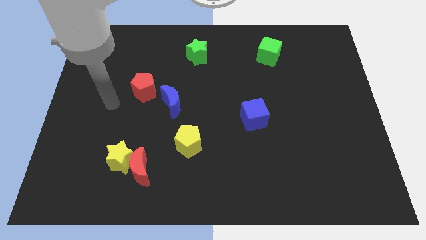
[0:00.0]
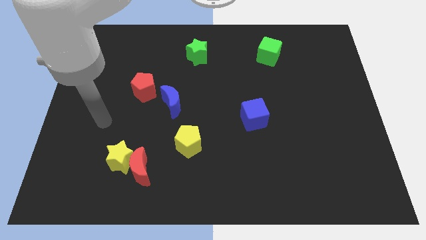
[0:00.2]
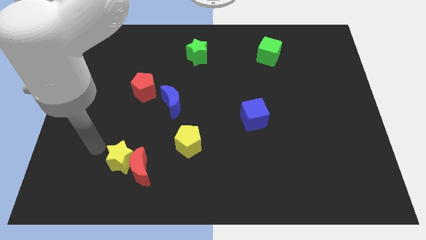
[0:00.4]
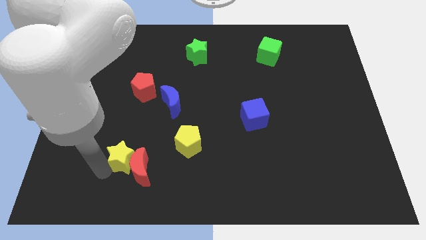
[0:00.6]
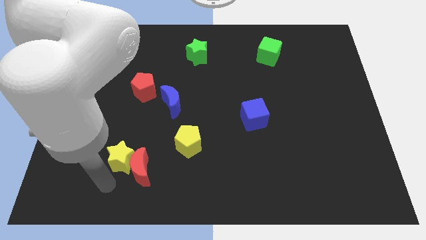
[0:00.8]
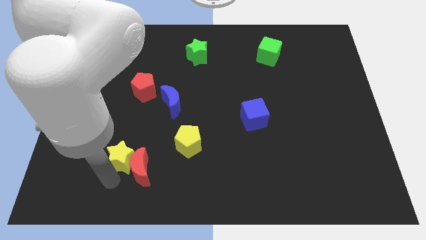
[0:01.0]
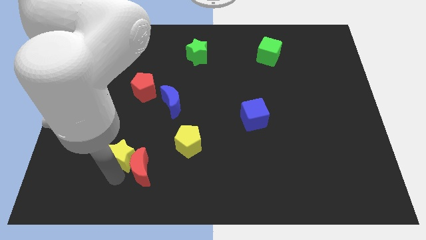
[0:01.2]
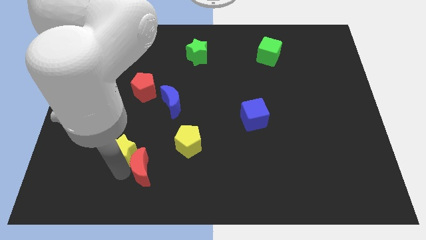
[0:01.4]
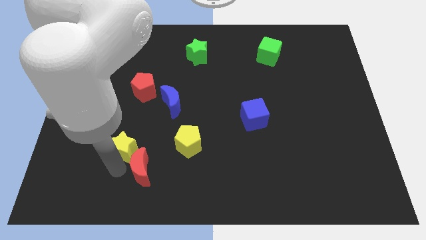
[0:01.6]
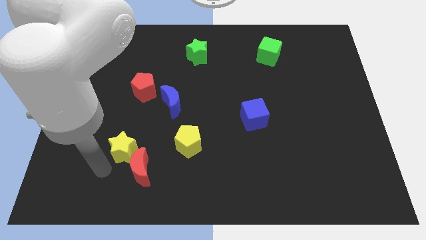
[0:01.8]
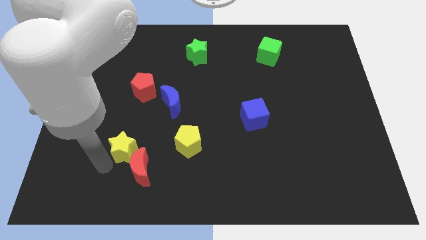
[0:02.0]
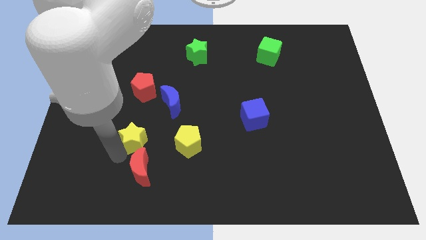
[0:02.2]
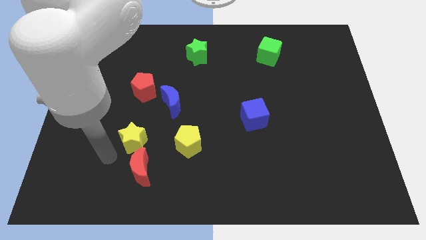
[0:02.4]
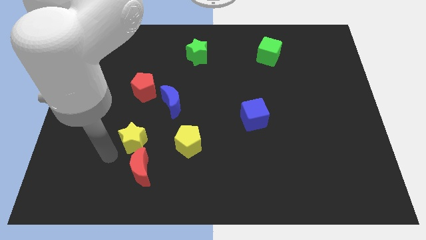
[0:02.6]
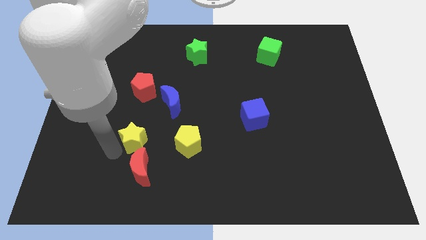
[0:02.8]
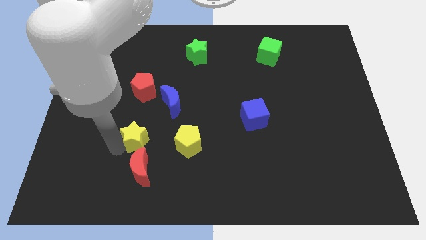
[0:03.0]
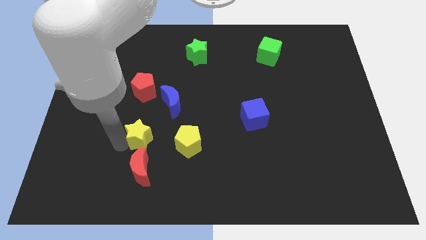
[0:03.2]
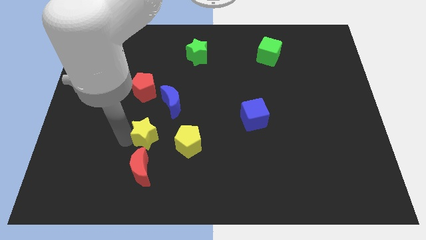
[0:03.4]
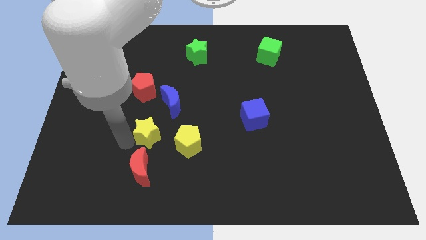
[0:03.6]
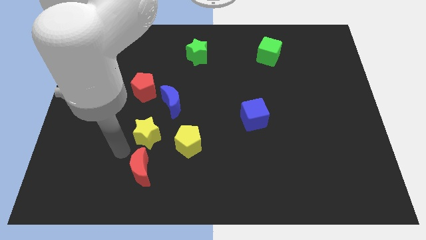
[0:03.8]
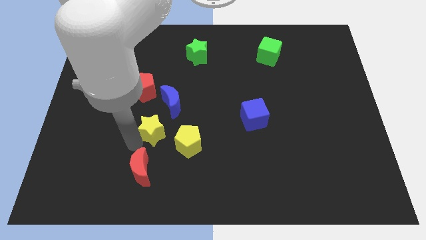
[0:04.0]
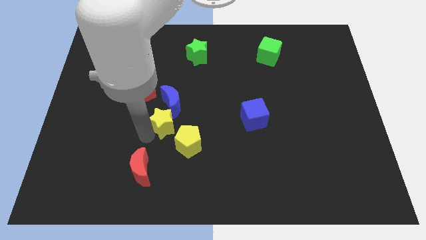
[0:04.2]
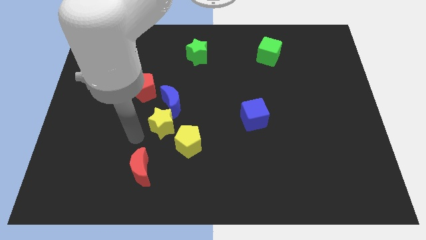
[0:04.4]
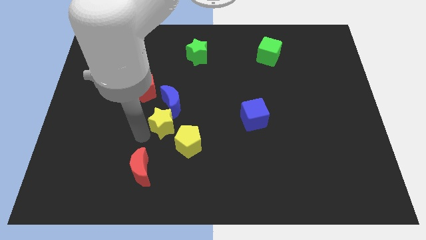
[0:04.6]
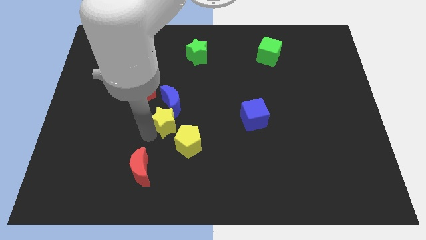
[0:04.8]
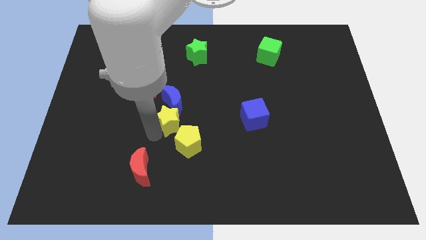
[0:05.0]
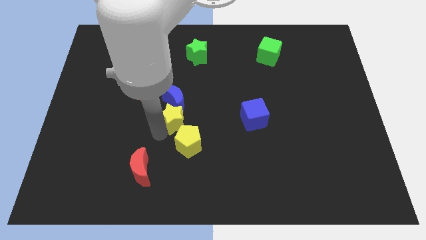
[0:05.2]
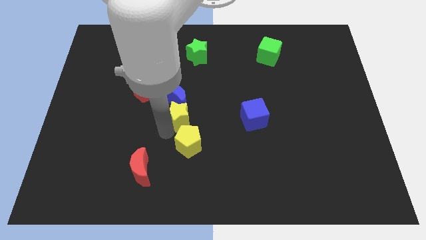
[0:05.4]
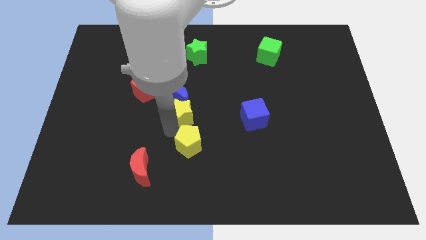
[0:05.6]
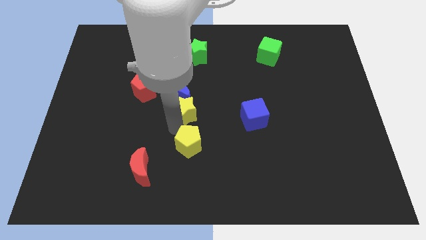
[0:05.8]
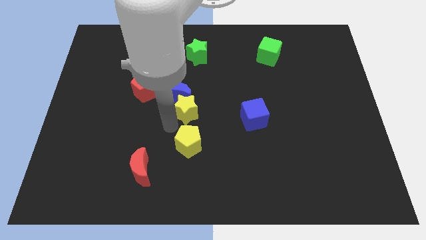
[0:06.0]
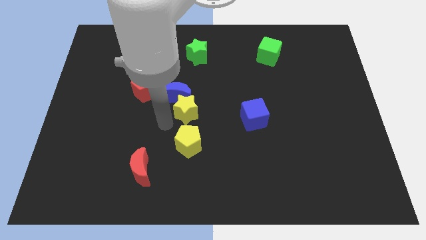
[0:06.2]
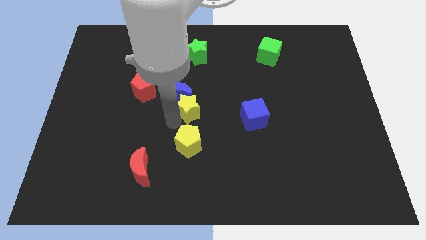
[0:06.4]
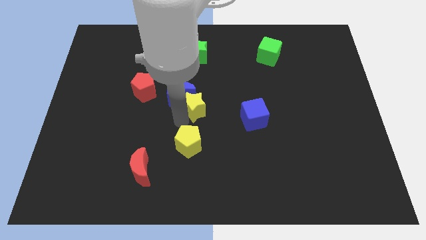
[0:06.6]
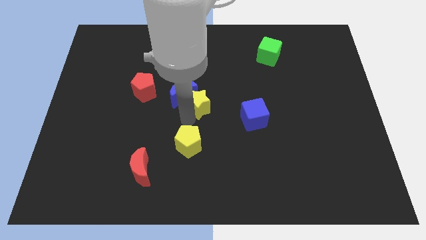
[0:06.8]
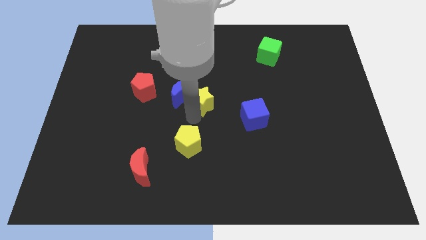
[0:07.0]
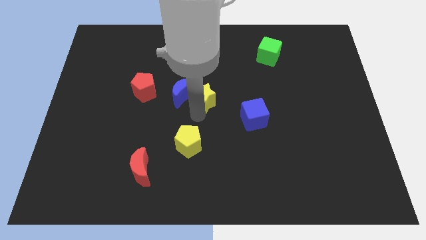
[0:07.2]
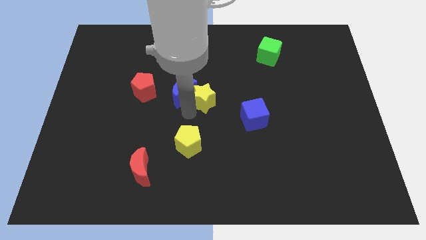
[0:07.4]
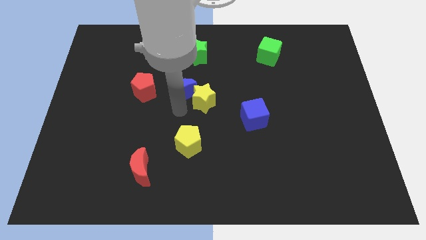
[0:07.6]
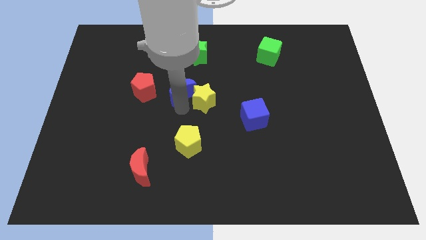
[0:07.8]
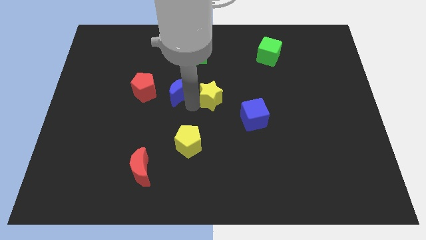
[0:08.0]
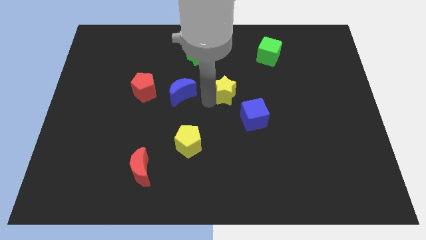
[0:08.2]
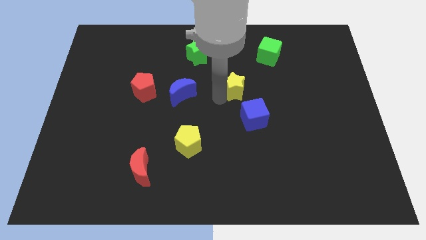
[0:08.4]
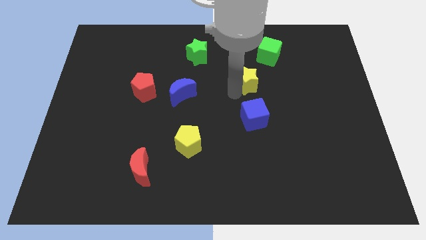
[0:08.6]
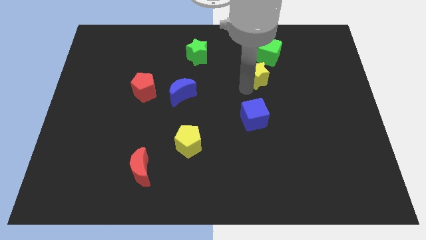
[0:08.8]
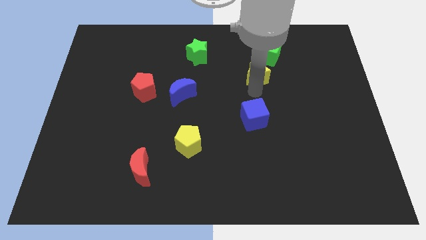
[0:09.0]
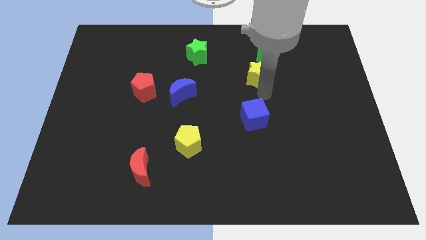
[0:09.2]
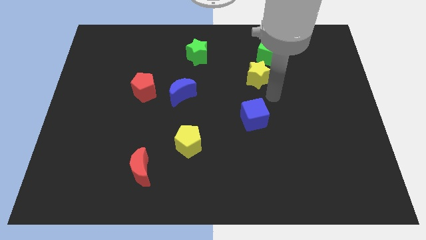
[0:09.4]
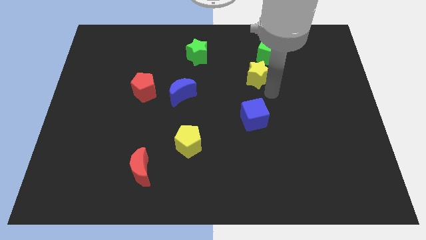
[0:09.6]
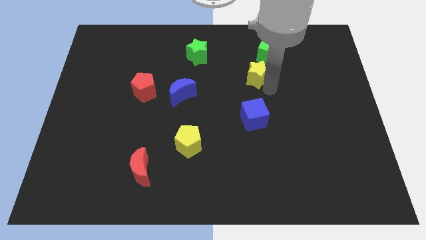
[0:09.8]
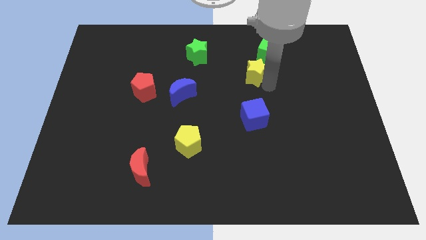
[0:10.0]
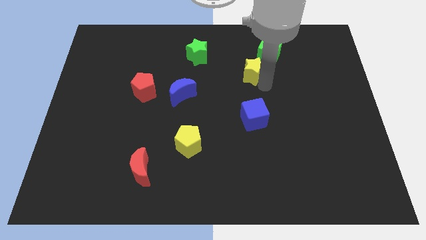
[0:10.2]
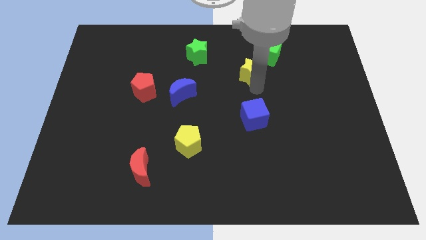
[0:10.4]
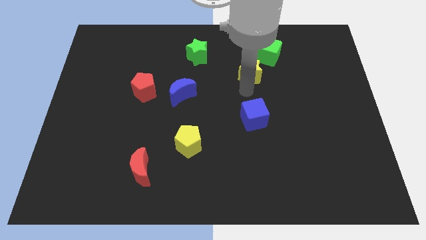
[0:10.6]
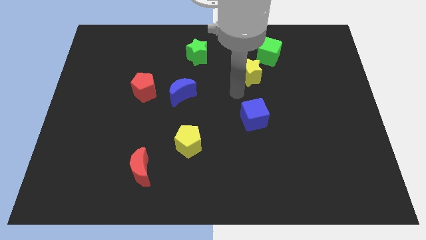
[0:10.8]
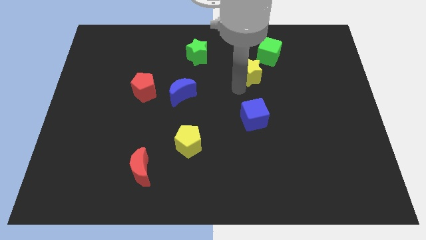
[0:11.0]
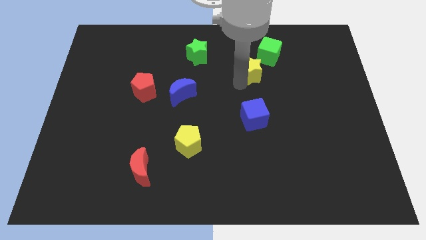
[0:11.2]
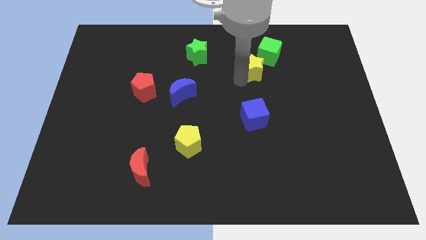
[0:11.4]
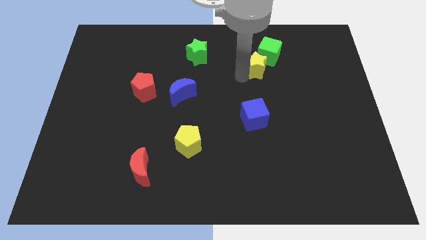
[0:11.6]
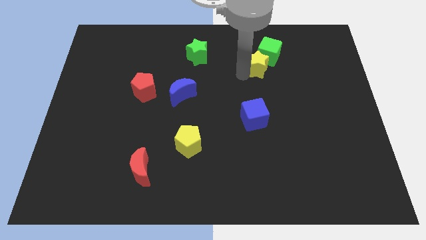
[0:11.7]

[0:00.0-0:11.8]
push the yellow star to the green cube

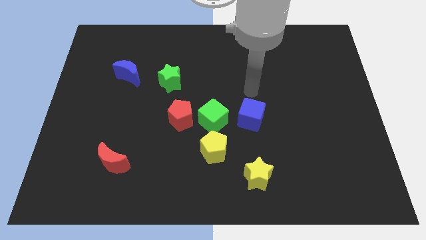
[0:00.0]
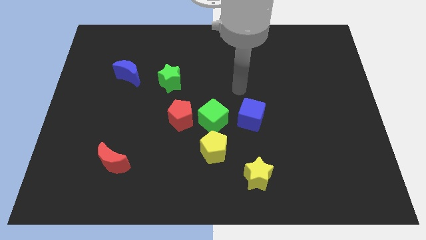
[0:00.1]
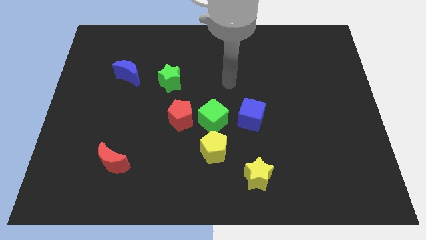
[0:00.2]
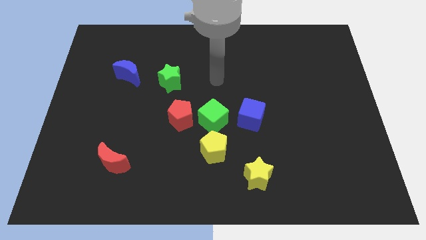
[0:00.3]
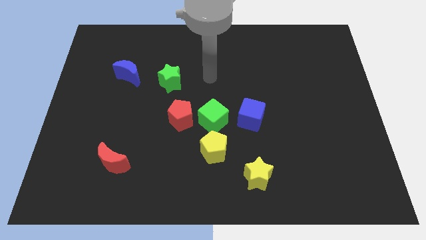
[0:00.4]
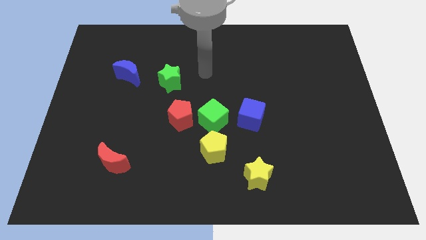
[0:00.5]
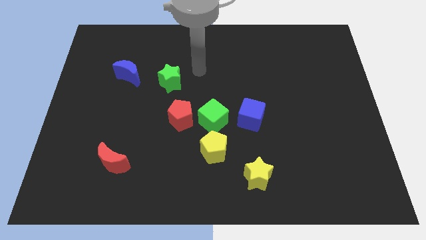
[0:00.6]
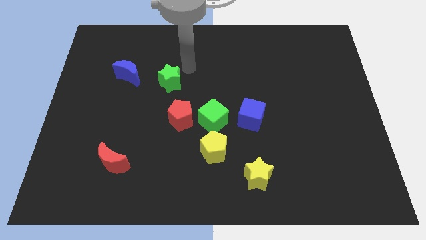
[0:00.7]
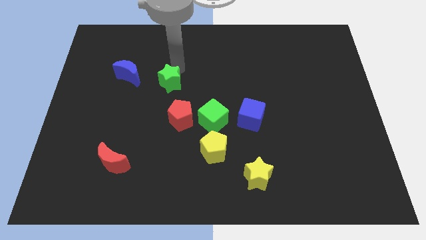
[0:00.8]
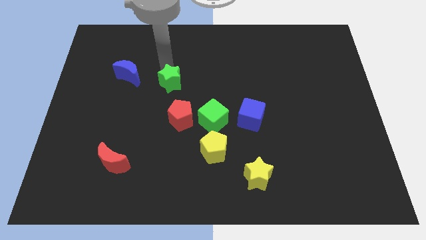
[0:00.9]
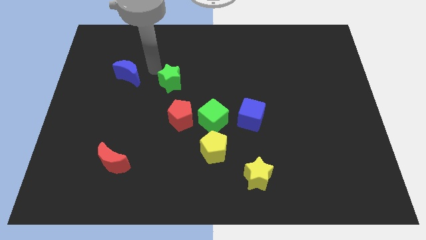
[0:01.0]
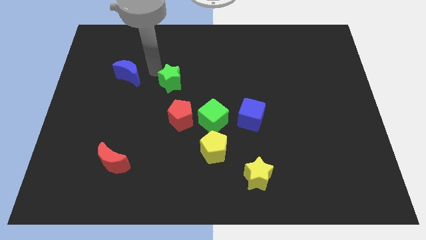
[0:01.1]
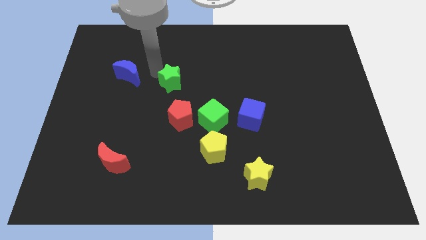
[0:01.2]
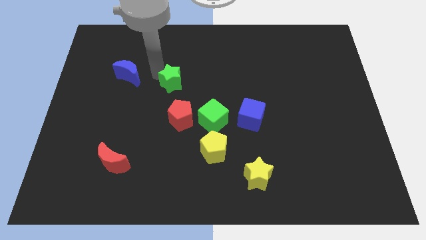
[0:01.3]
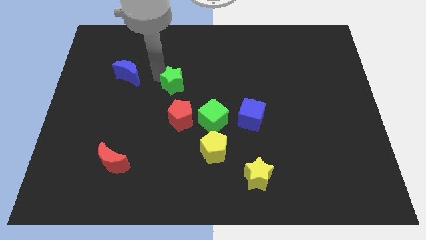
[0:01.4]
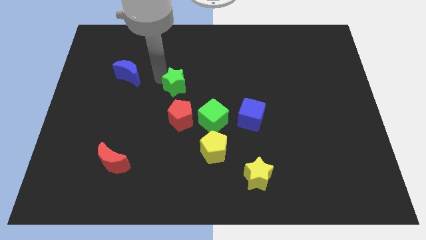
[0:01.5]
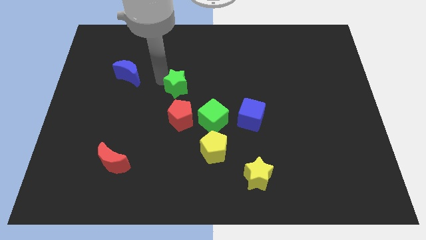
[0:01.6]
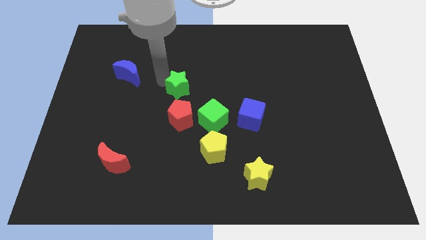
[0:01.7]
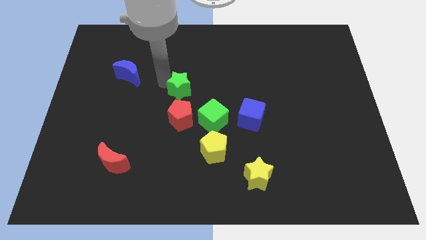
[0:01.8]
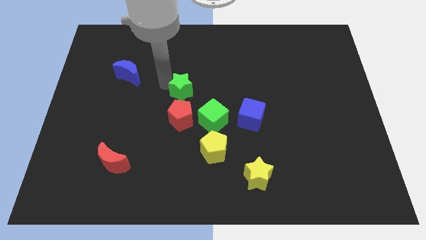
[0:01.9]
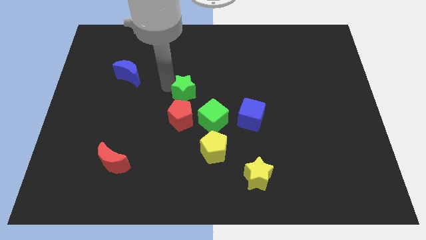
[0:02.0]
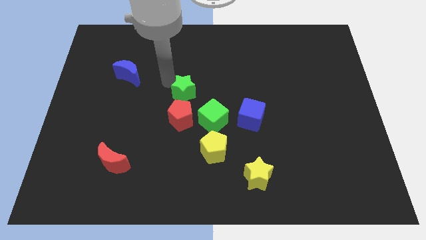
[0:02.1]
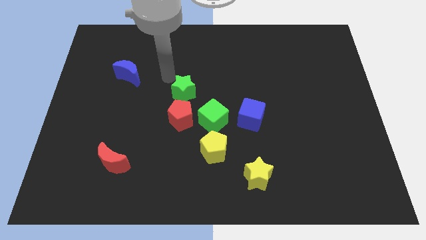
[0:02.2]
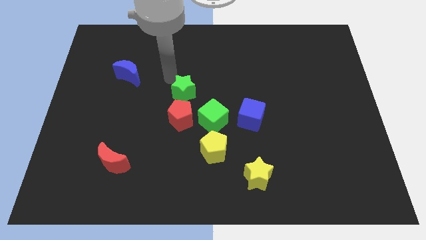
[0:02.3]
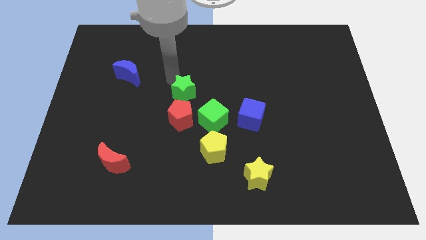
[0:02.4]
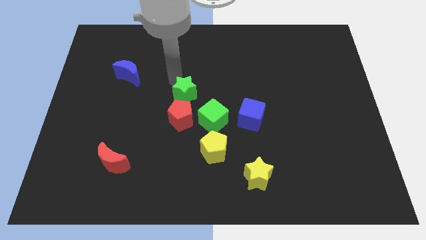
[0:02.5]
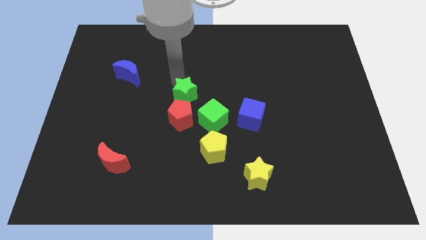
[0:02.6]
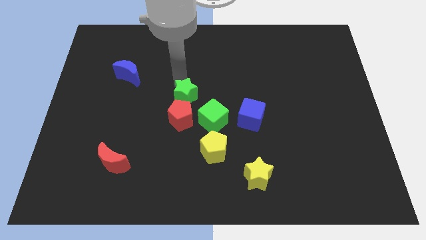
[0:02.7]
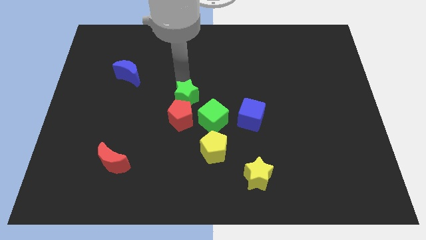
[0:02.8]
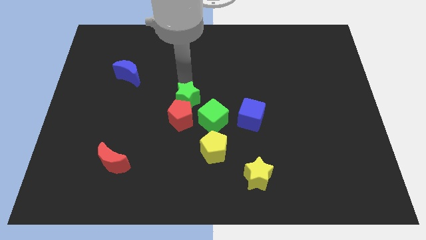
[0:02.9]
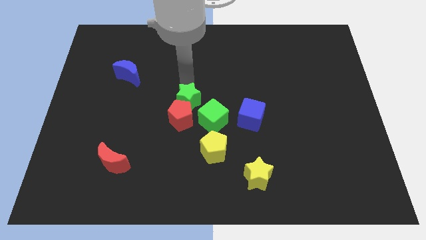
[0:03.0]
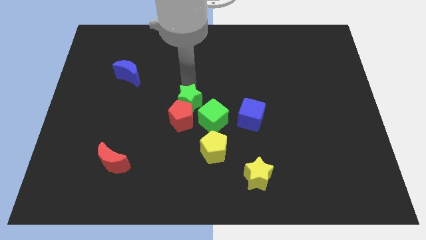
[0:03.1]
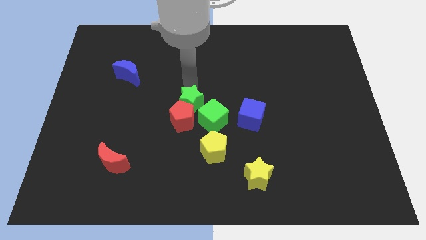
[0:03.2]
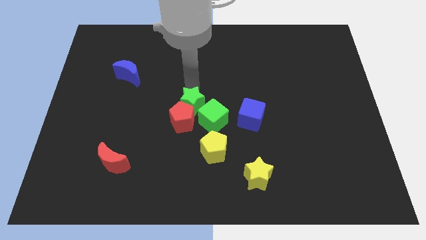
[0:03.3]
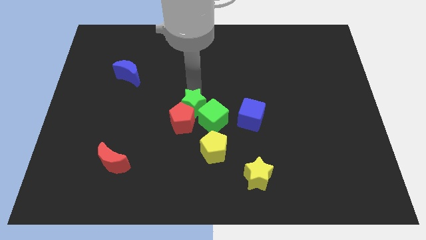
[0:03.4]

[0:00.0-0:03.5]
move the green star towards the green cube
